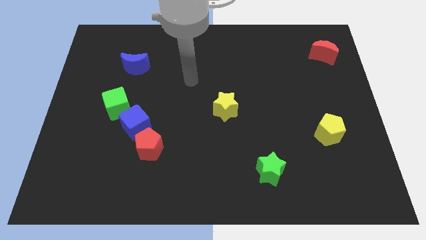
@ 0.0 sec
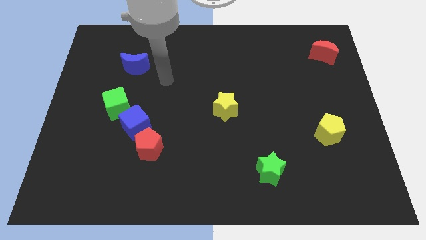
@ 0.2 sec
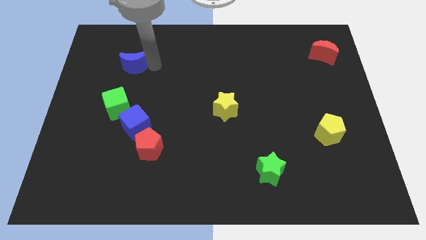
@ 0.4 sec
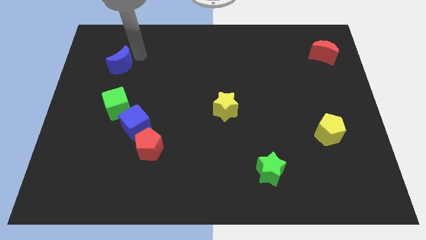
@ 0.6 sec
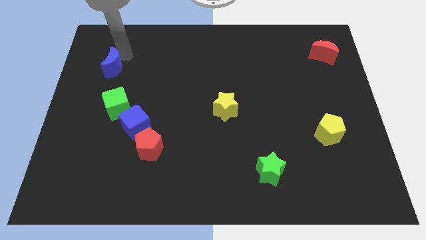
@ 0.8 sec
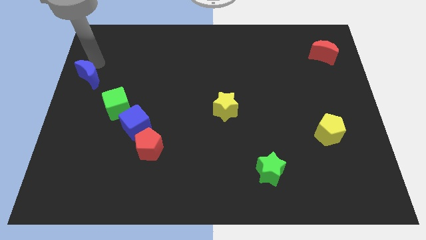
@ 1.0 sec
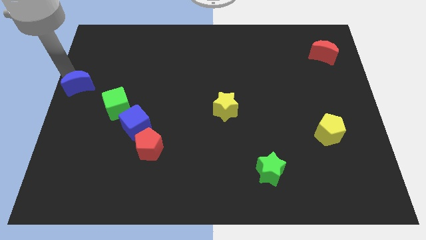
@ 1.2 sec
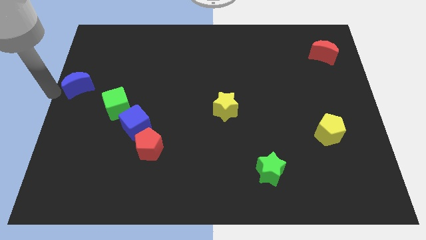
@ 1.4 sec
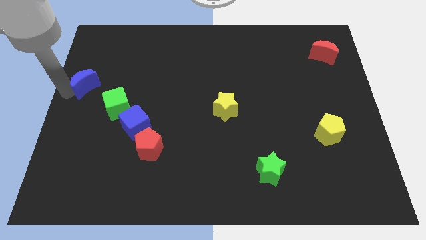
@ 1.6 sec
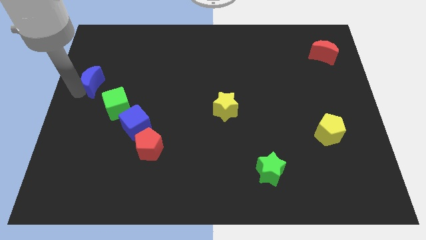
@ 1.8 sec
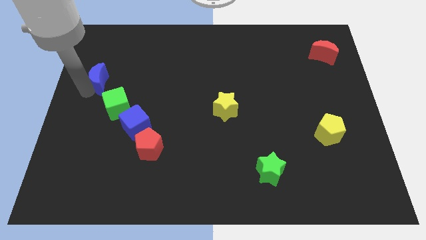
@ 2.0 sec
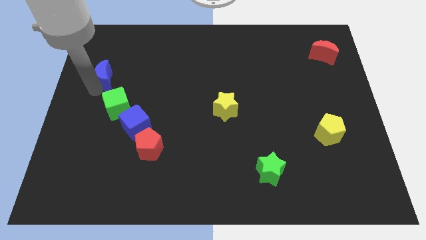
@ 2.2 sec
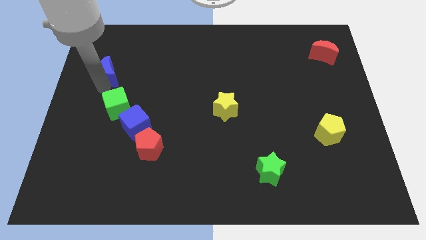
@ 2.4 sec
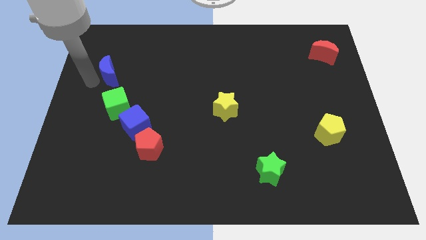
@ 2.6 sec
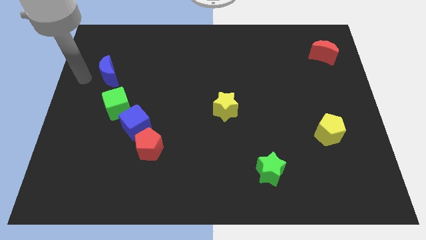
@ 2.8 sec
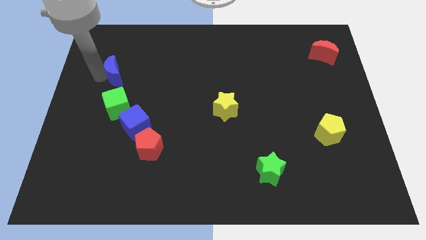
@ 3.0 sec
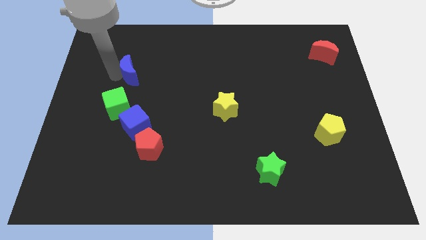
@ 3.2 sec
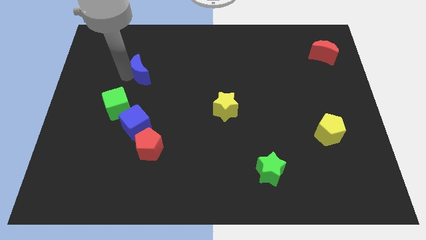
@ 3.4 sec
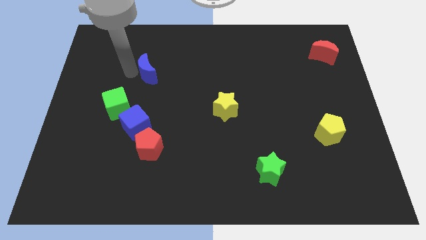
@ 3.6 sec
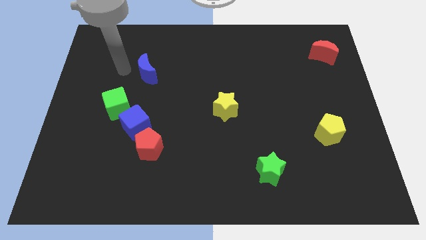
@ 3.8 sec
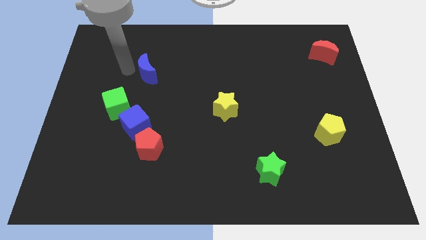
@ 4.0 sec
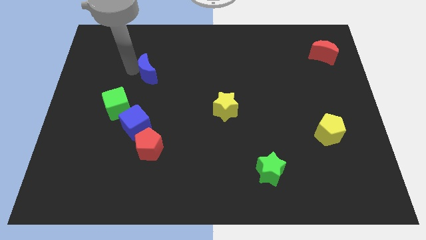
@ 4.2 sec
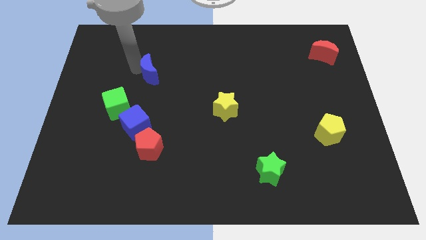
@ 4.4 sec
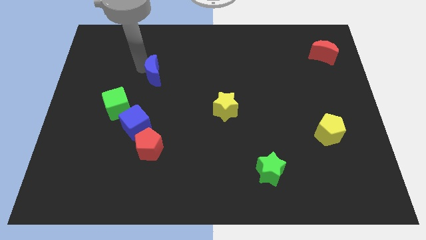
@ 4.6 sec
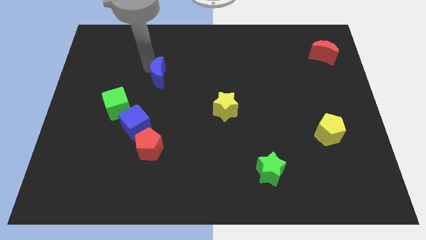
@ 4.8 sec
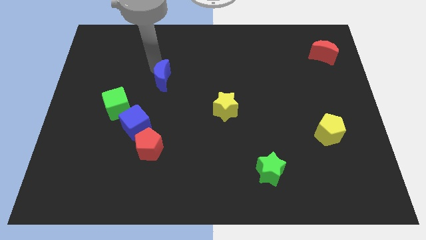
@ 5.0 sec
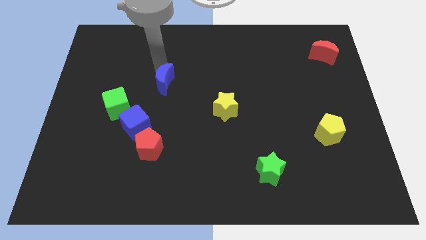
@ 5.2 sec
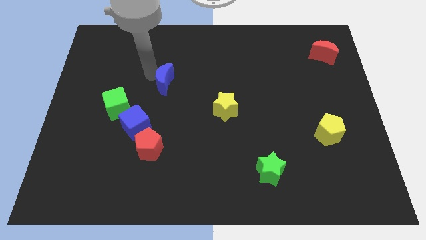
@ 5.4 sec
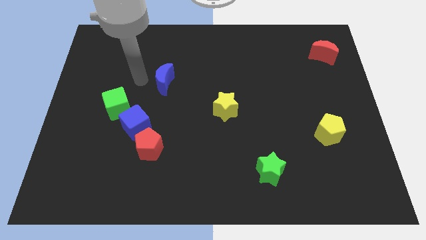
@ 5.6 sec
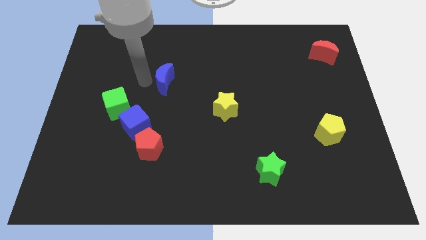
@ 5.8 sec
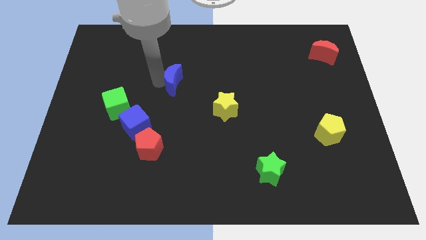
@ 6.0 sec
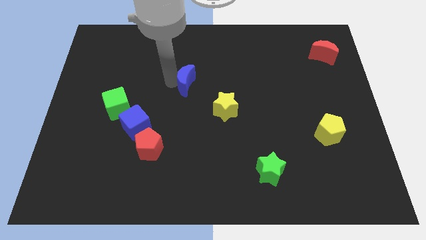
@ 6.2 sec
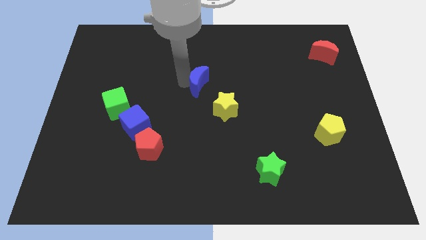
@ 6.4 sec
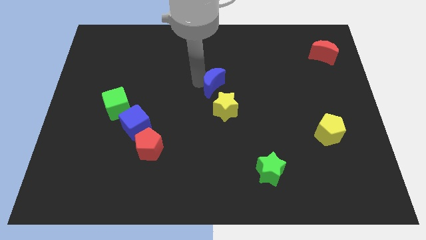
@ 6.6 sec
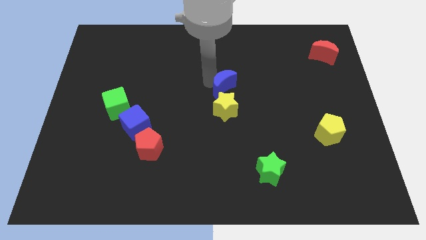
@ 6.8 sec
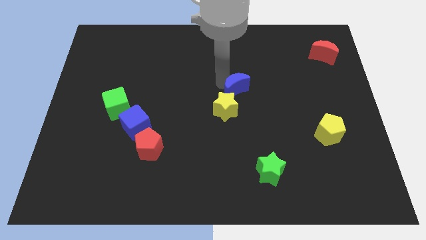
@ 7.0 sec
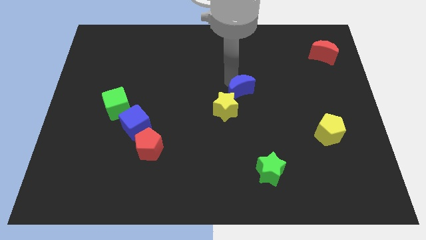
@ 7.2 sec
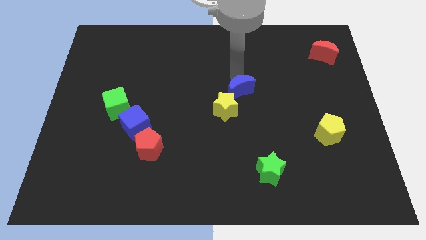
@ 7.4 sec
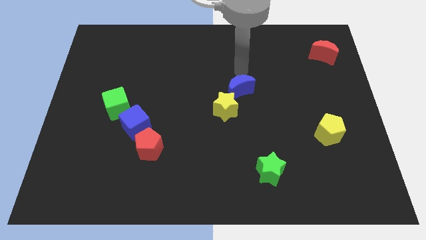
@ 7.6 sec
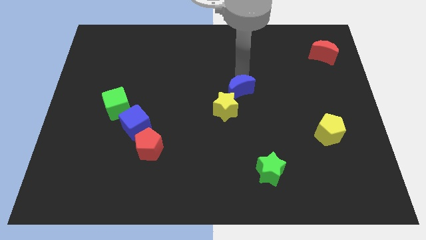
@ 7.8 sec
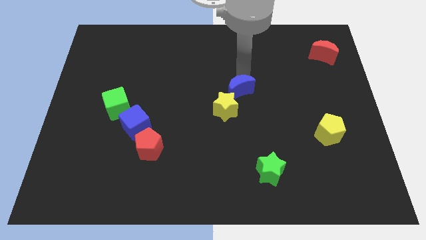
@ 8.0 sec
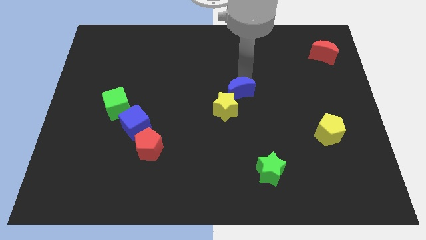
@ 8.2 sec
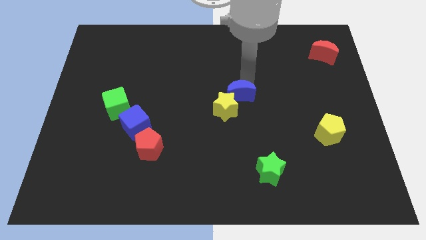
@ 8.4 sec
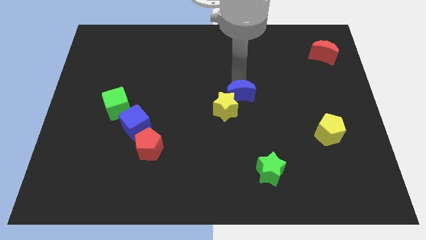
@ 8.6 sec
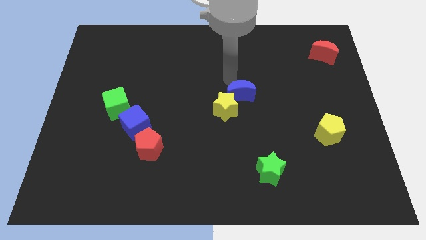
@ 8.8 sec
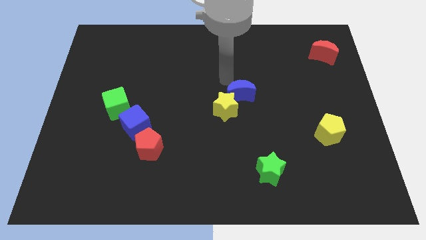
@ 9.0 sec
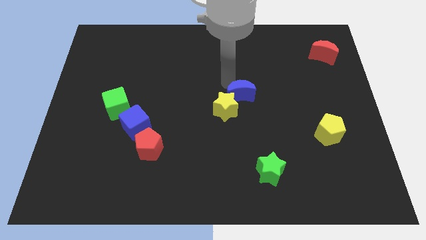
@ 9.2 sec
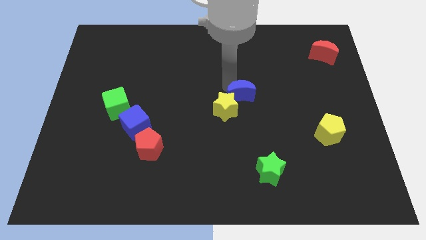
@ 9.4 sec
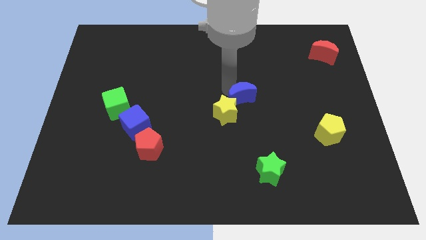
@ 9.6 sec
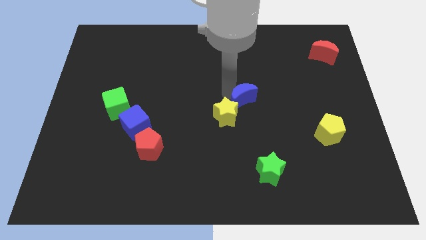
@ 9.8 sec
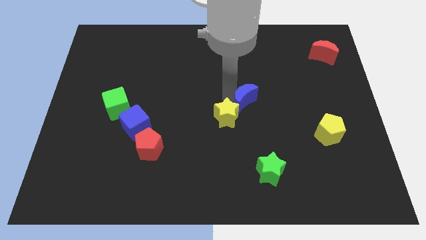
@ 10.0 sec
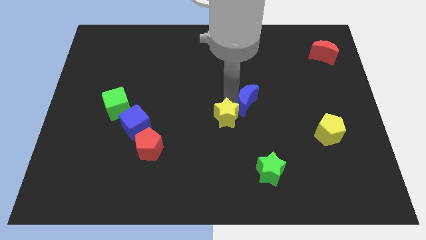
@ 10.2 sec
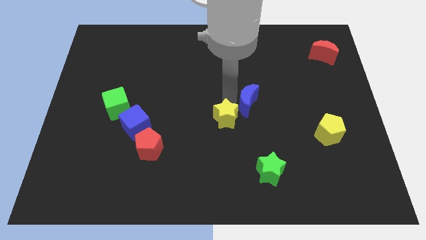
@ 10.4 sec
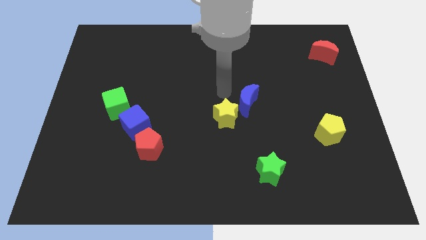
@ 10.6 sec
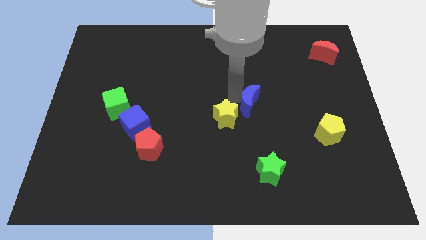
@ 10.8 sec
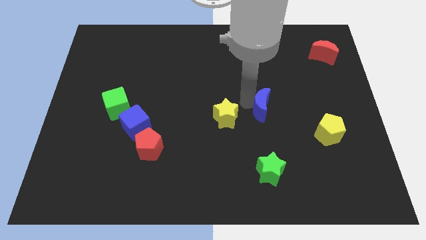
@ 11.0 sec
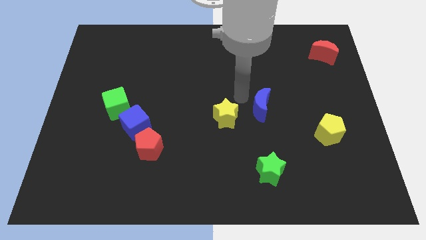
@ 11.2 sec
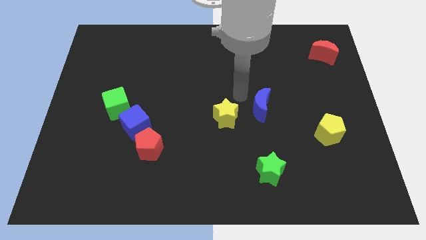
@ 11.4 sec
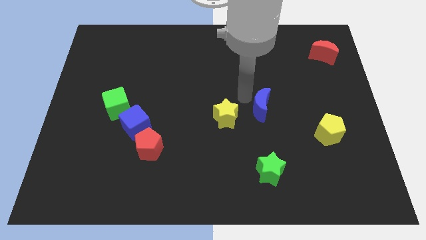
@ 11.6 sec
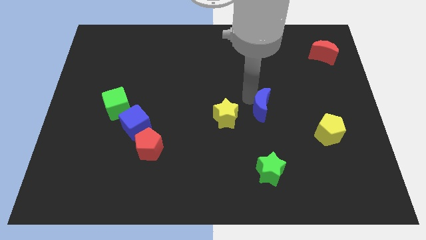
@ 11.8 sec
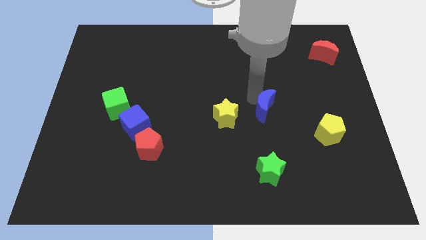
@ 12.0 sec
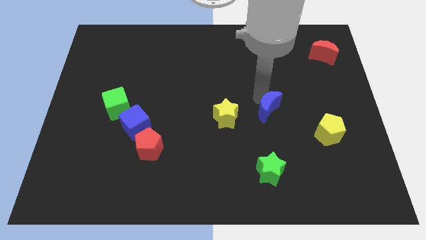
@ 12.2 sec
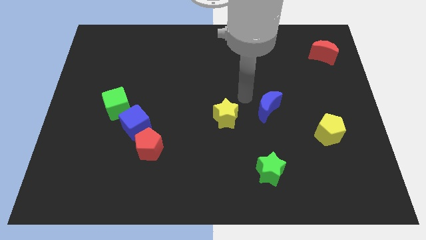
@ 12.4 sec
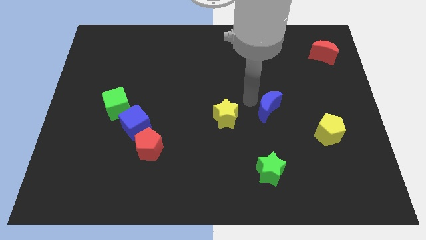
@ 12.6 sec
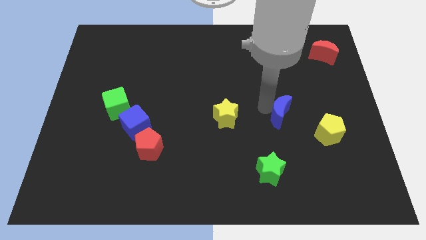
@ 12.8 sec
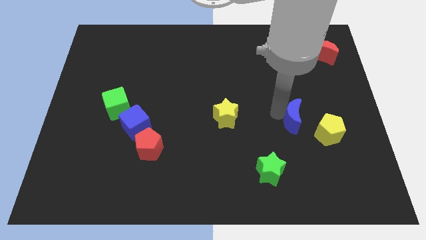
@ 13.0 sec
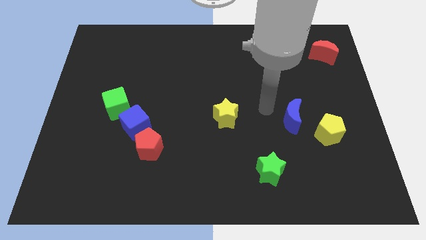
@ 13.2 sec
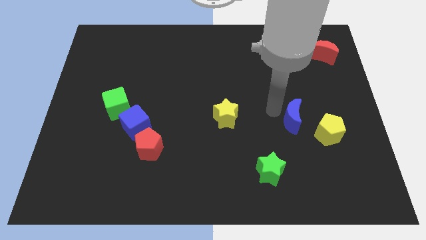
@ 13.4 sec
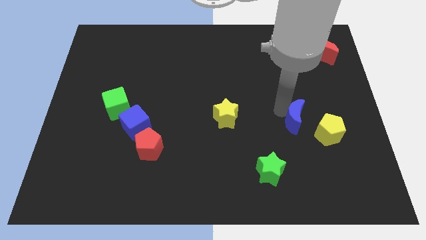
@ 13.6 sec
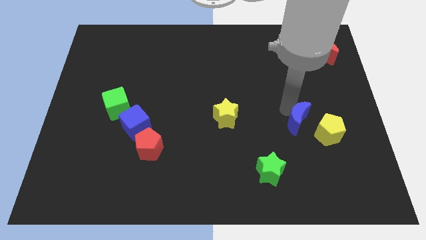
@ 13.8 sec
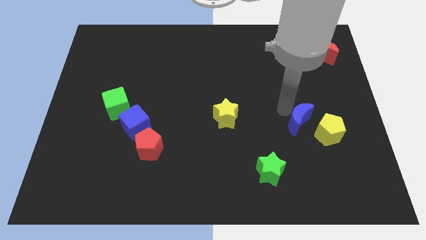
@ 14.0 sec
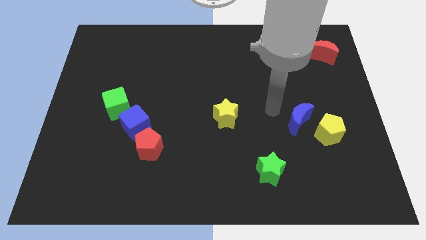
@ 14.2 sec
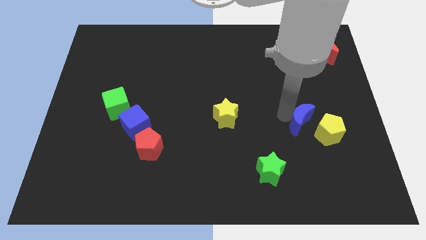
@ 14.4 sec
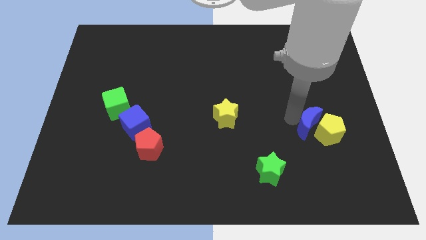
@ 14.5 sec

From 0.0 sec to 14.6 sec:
slide the blue moon close to the yellow pentagon
